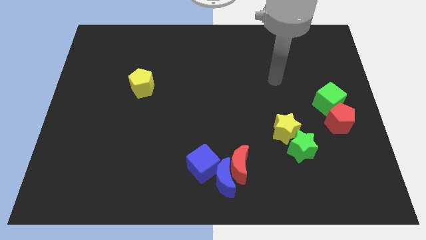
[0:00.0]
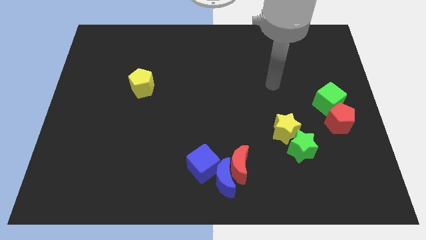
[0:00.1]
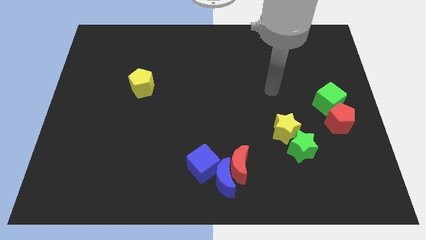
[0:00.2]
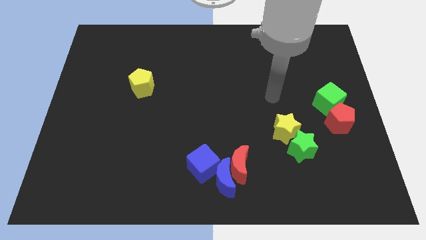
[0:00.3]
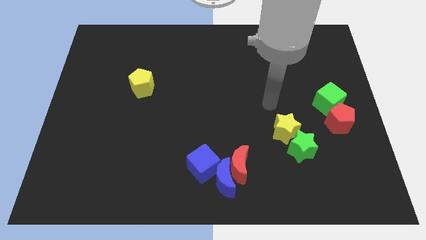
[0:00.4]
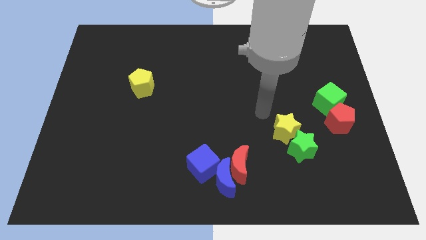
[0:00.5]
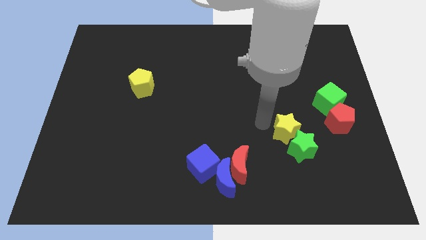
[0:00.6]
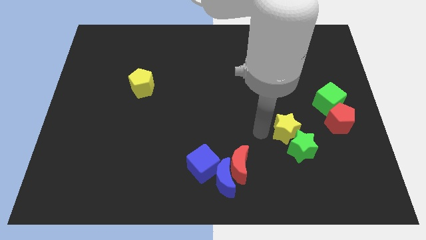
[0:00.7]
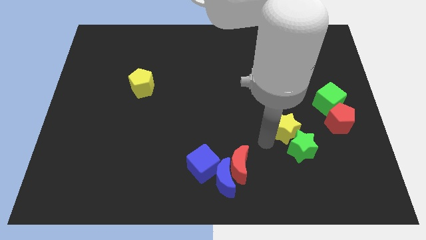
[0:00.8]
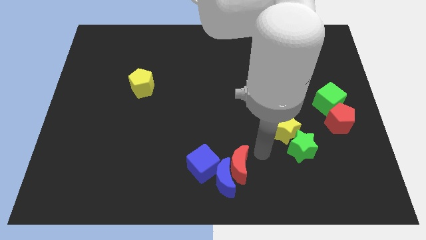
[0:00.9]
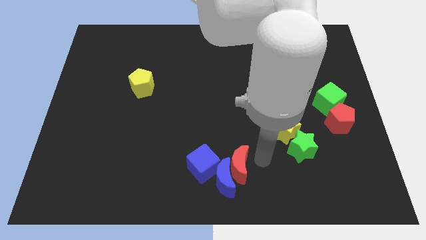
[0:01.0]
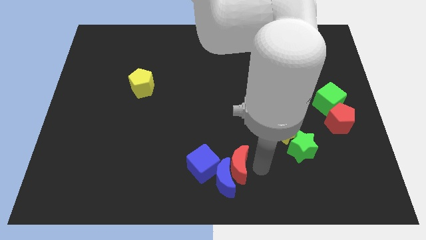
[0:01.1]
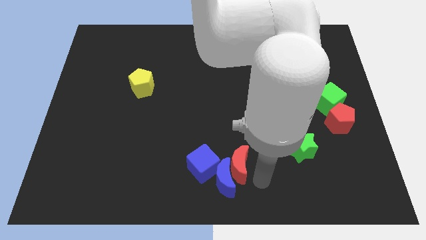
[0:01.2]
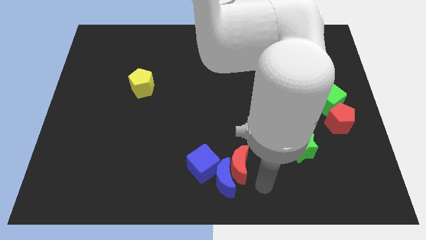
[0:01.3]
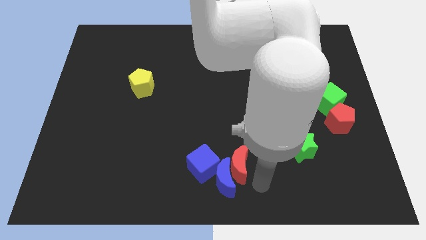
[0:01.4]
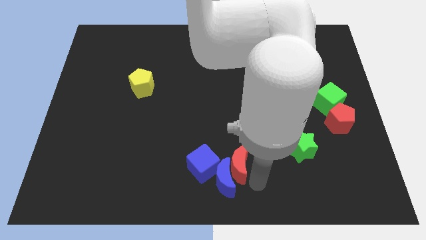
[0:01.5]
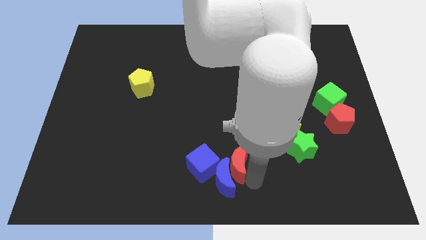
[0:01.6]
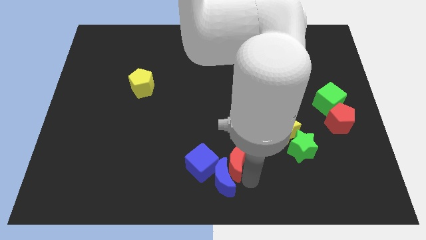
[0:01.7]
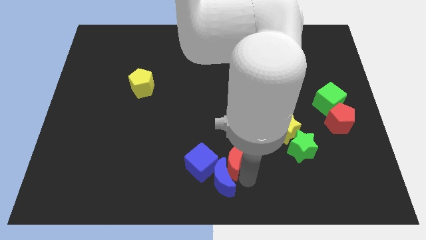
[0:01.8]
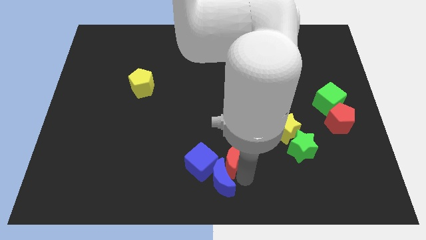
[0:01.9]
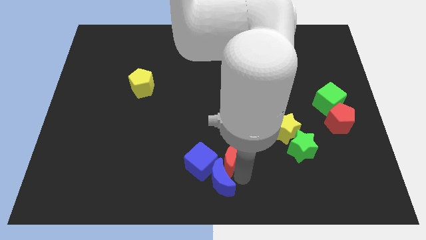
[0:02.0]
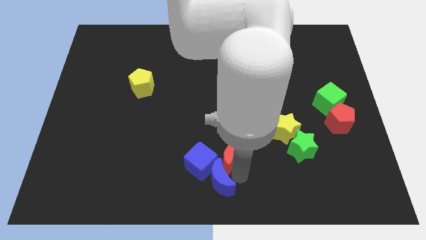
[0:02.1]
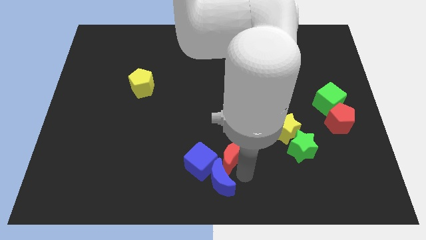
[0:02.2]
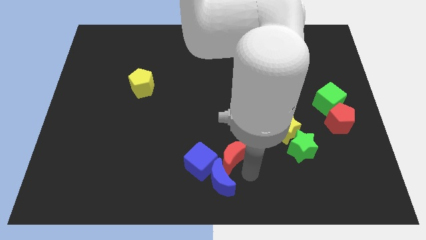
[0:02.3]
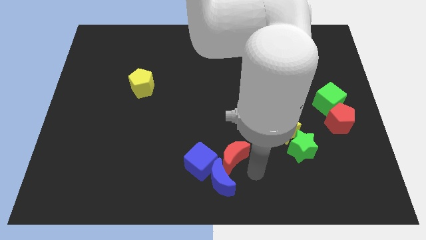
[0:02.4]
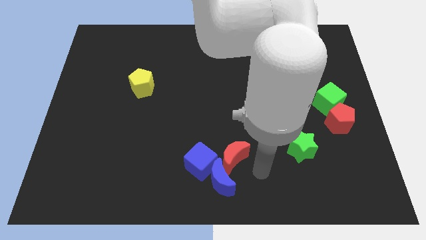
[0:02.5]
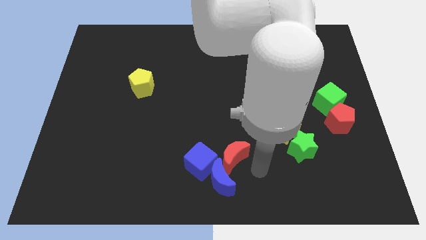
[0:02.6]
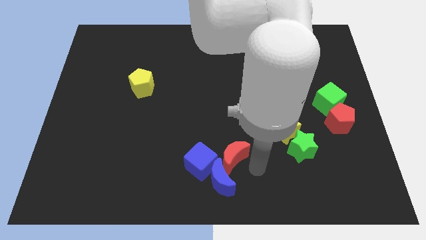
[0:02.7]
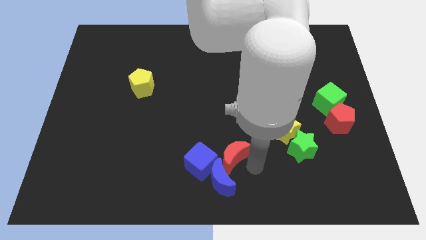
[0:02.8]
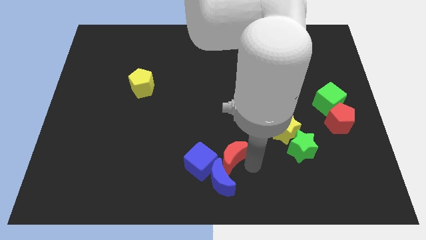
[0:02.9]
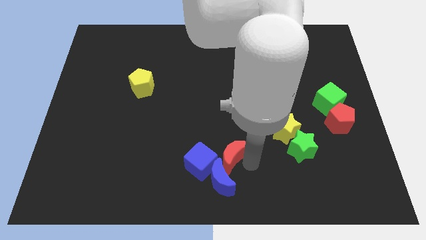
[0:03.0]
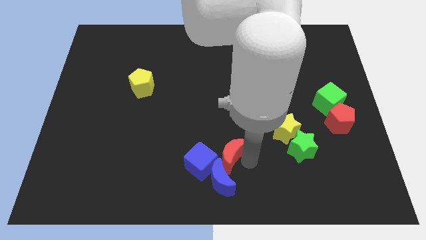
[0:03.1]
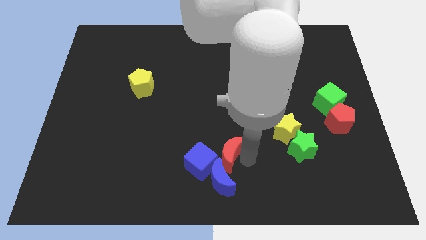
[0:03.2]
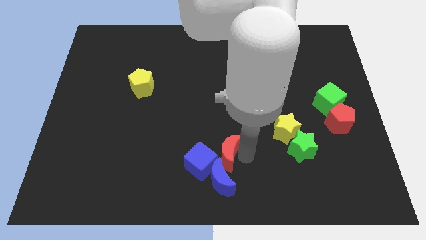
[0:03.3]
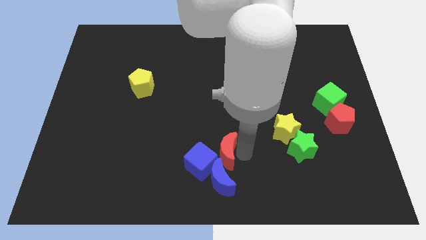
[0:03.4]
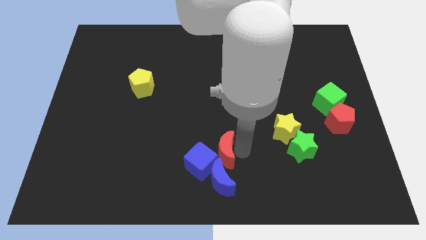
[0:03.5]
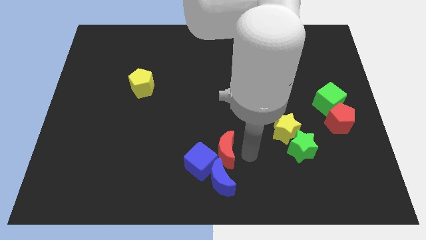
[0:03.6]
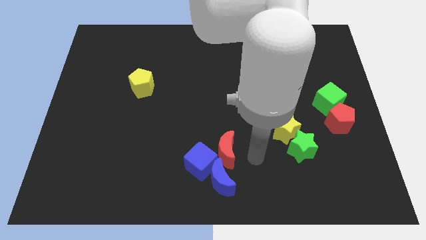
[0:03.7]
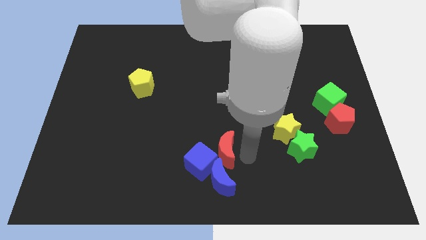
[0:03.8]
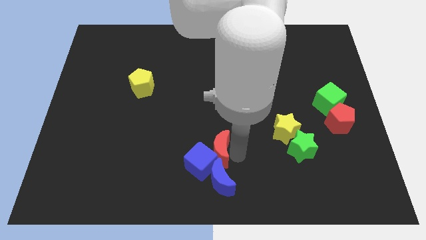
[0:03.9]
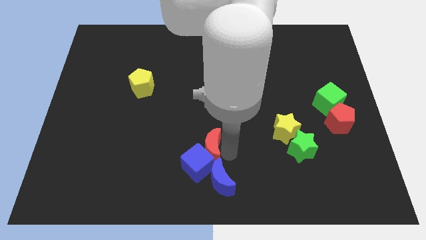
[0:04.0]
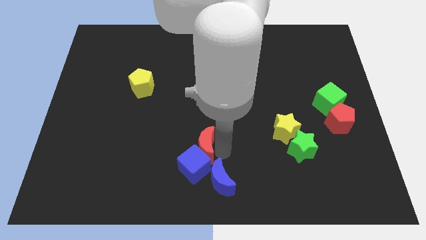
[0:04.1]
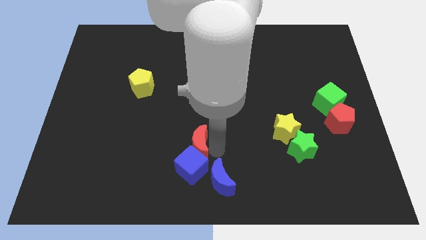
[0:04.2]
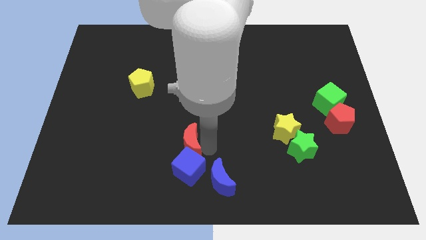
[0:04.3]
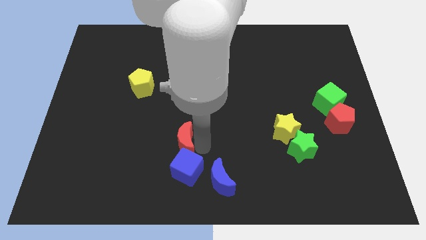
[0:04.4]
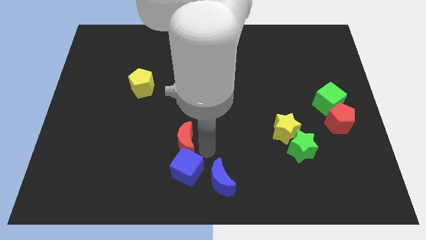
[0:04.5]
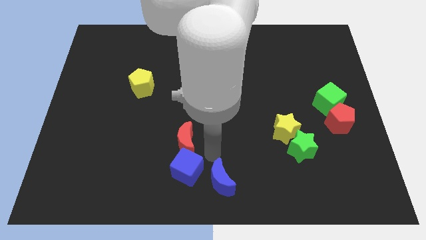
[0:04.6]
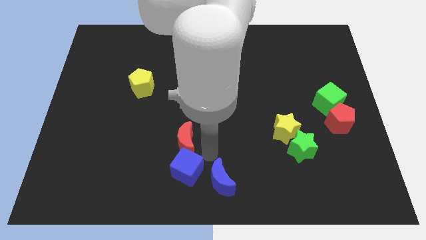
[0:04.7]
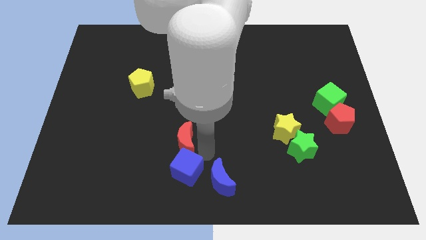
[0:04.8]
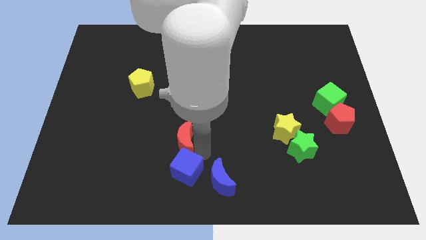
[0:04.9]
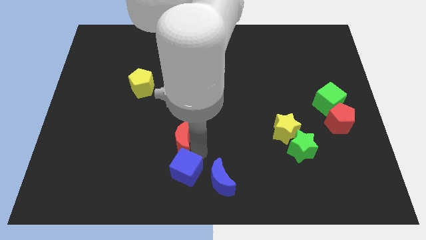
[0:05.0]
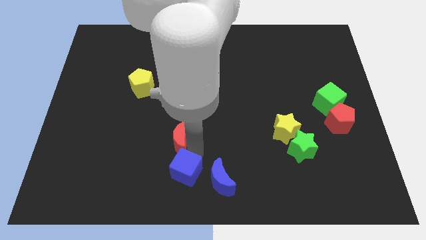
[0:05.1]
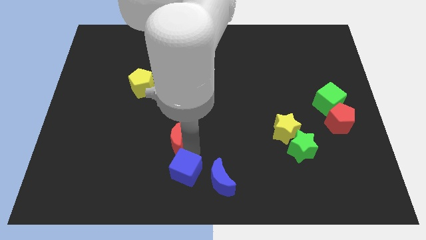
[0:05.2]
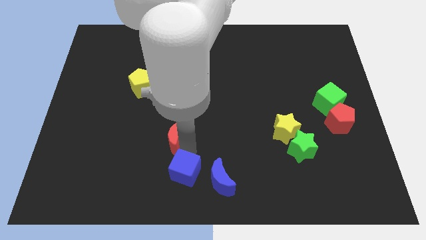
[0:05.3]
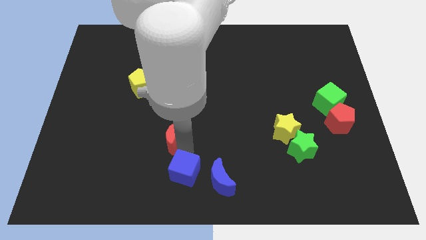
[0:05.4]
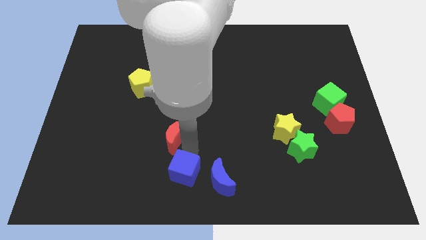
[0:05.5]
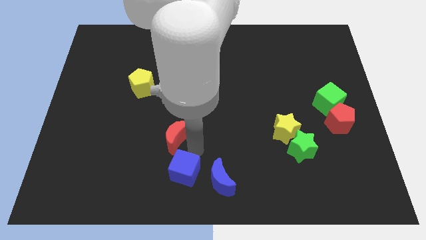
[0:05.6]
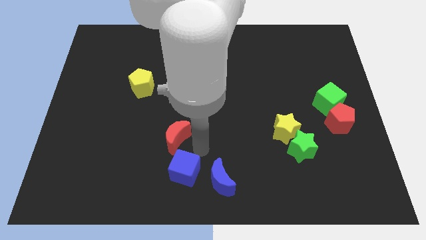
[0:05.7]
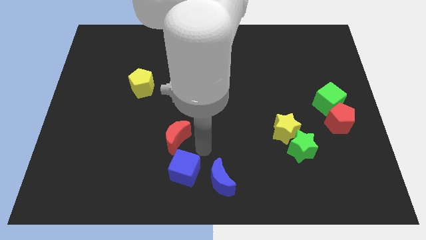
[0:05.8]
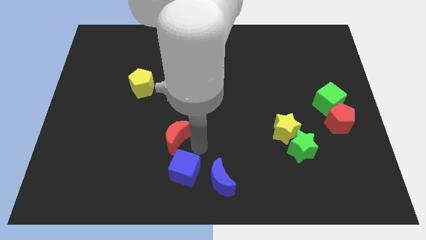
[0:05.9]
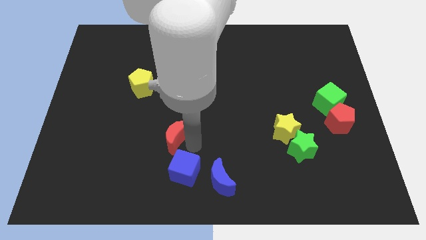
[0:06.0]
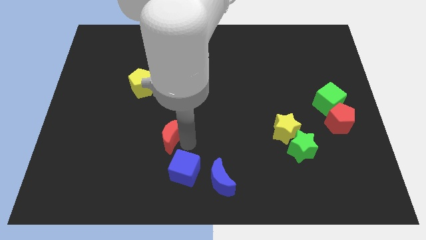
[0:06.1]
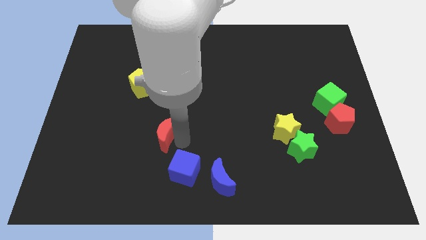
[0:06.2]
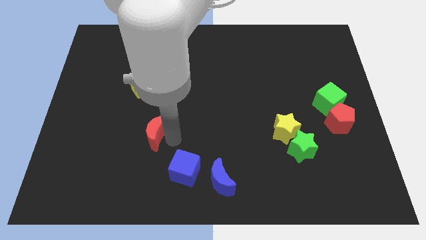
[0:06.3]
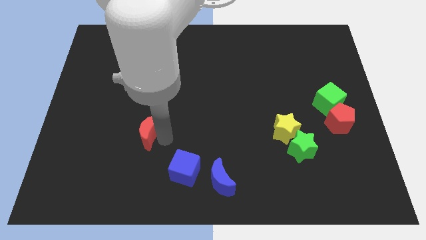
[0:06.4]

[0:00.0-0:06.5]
slide the red moon below the yellow pentagon

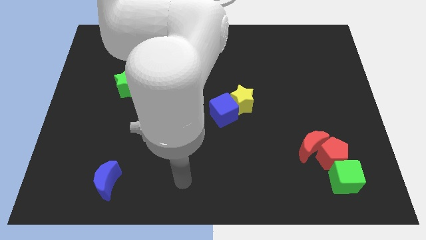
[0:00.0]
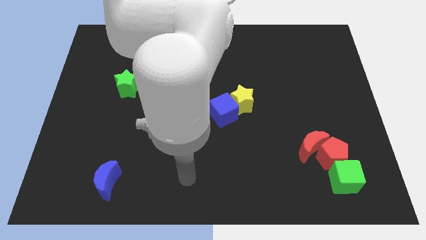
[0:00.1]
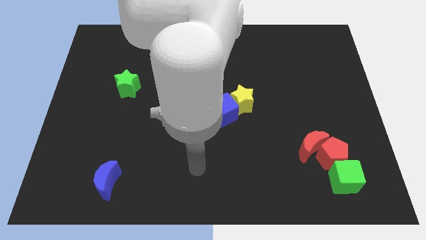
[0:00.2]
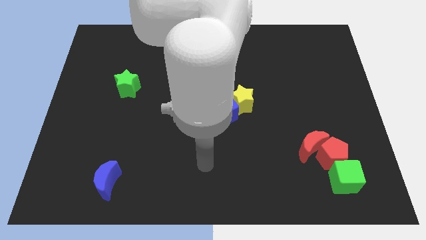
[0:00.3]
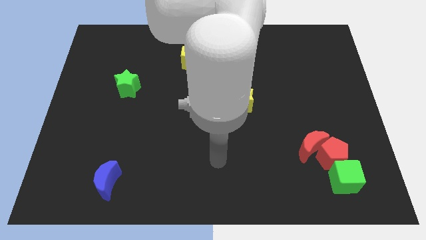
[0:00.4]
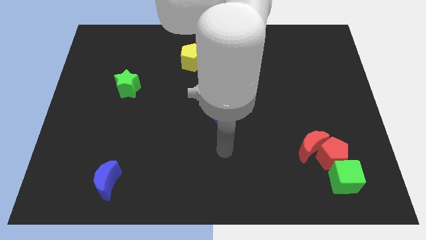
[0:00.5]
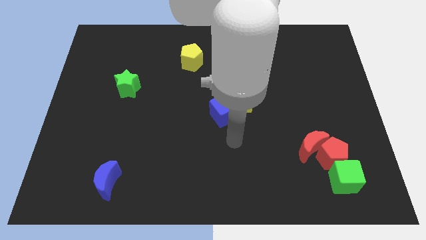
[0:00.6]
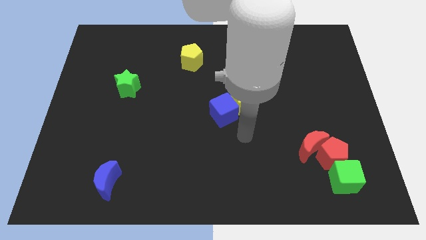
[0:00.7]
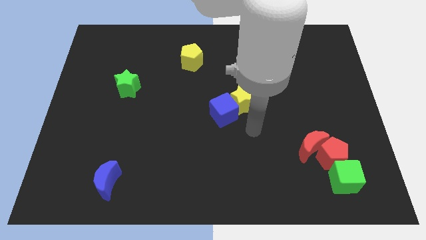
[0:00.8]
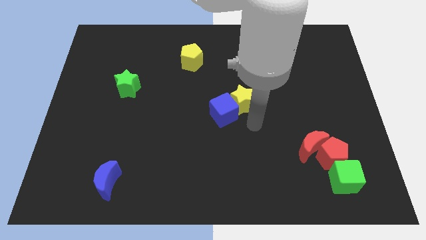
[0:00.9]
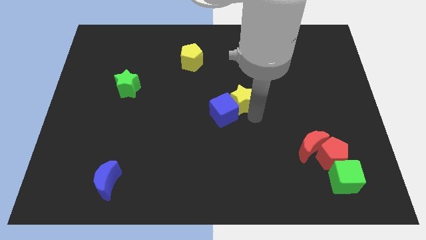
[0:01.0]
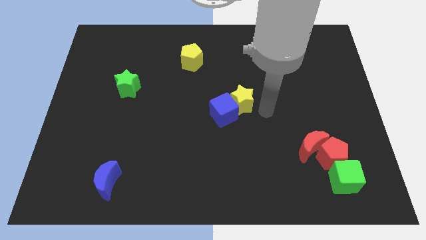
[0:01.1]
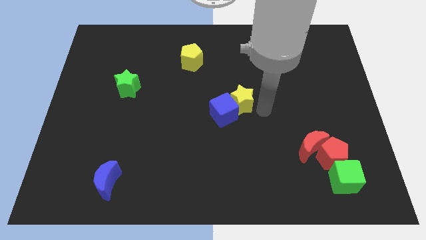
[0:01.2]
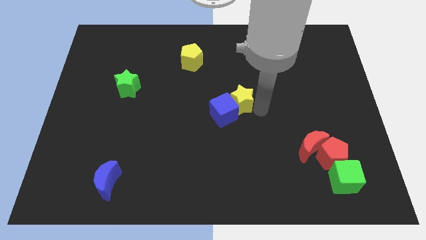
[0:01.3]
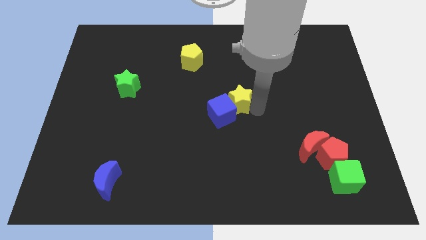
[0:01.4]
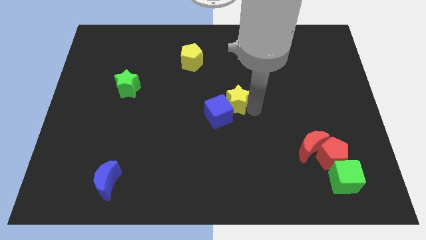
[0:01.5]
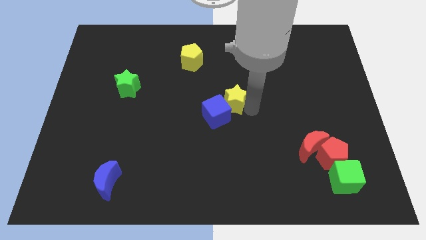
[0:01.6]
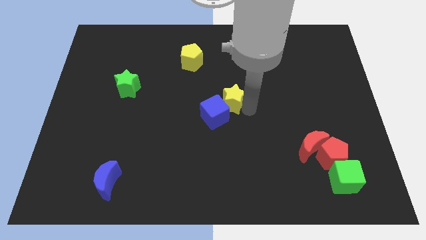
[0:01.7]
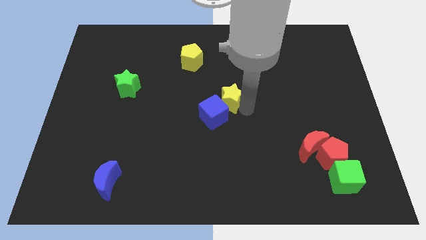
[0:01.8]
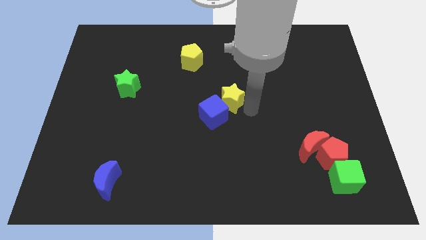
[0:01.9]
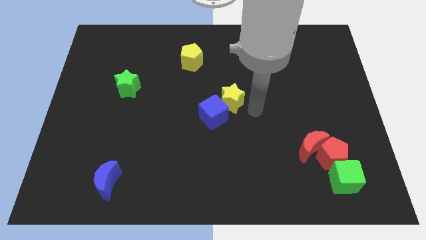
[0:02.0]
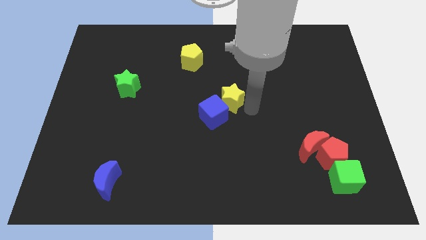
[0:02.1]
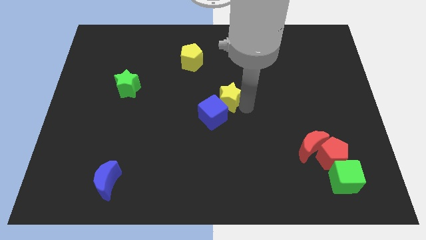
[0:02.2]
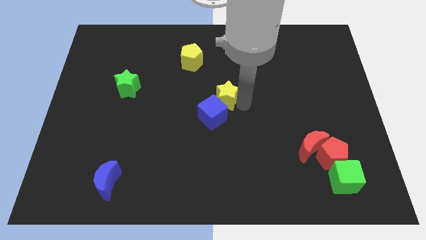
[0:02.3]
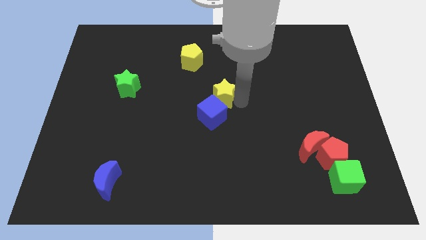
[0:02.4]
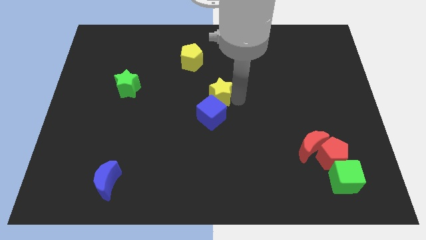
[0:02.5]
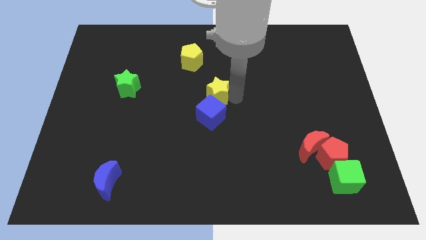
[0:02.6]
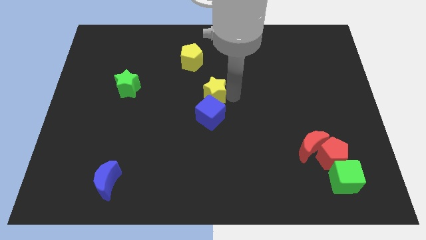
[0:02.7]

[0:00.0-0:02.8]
slide the yellow star to the top left of the blue cube
